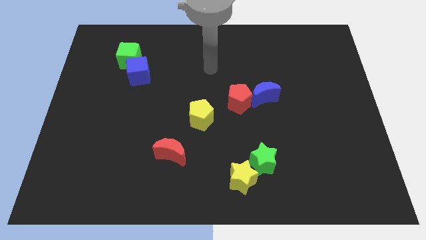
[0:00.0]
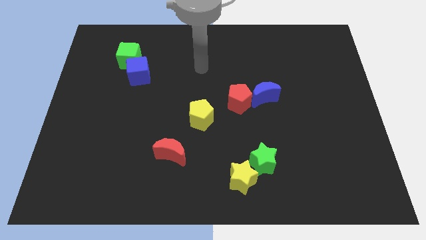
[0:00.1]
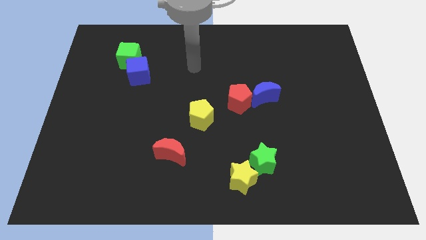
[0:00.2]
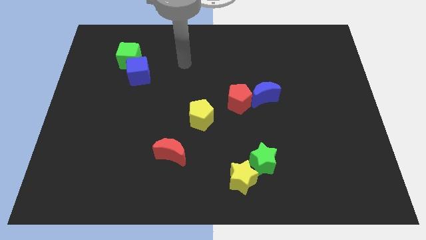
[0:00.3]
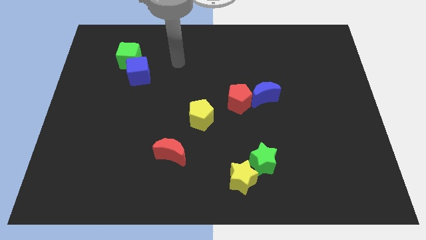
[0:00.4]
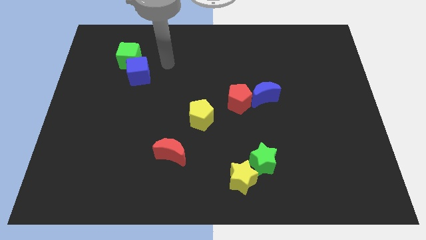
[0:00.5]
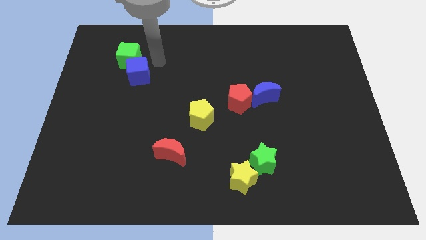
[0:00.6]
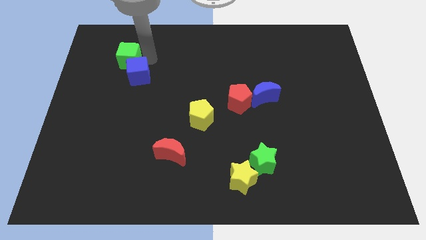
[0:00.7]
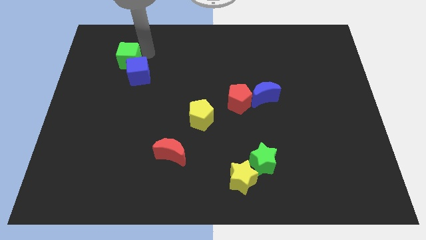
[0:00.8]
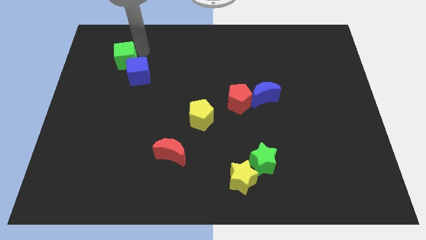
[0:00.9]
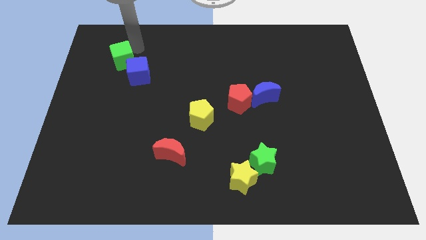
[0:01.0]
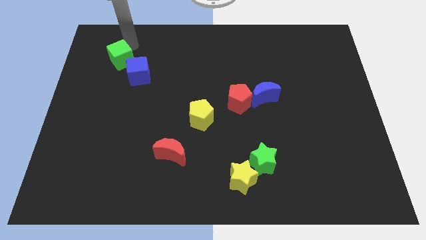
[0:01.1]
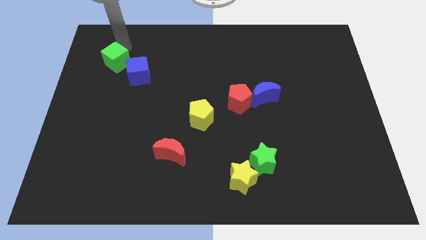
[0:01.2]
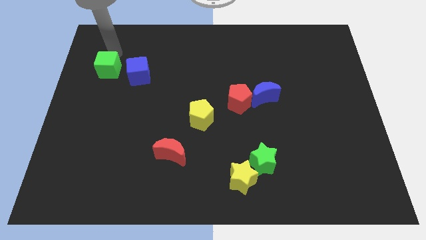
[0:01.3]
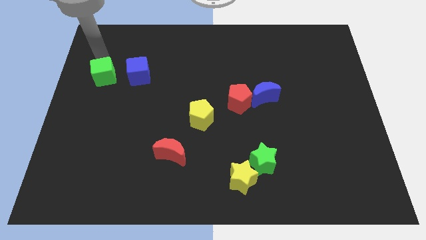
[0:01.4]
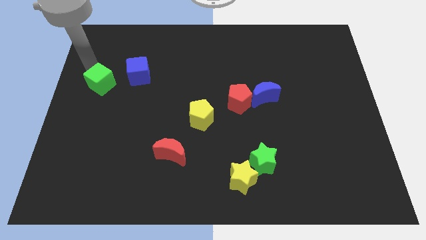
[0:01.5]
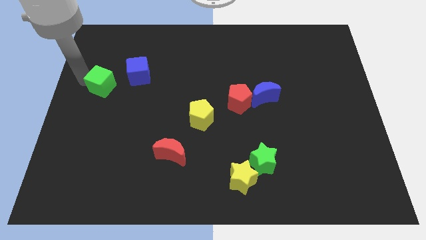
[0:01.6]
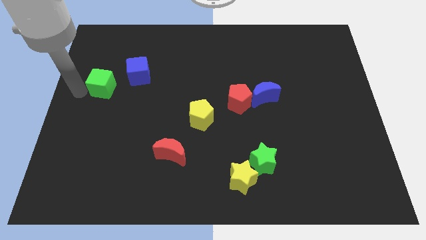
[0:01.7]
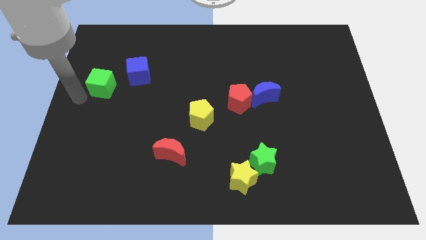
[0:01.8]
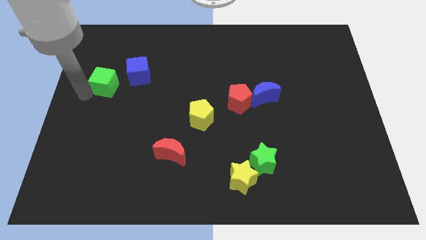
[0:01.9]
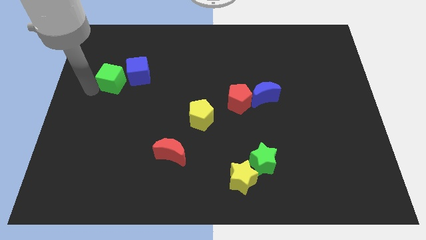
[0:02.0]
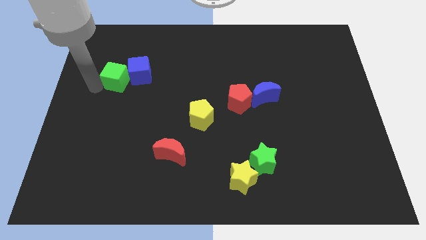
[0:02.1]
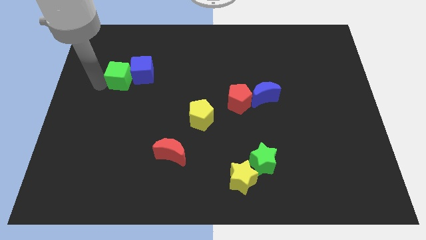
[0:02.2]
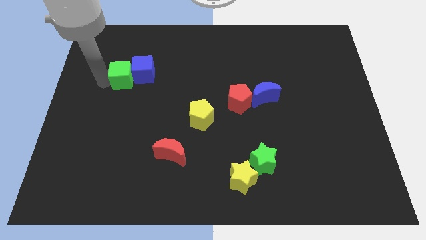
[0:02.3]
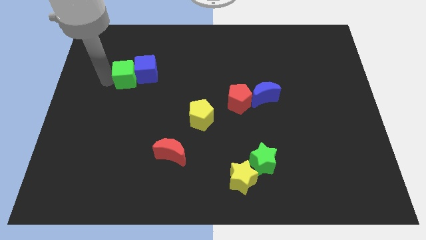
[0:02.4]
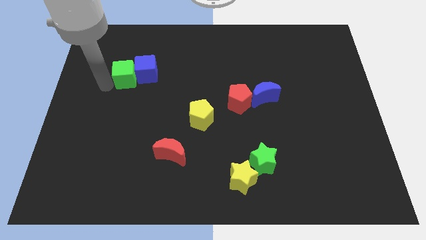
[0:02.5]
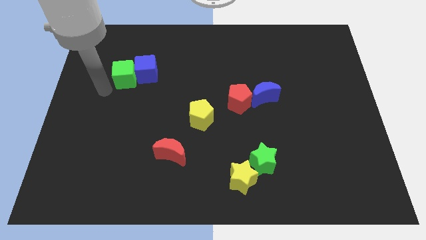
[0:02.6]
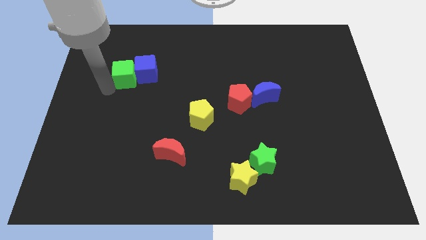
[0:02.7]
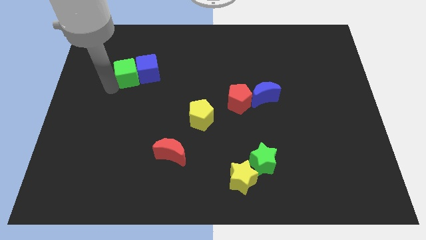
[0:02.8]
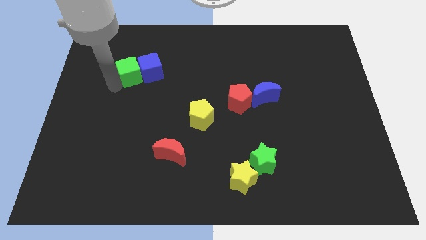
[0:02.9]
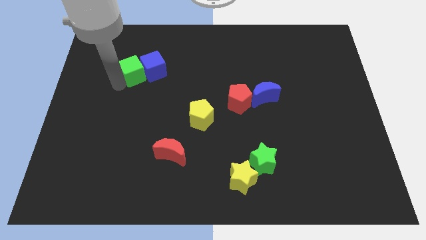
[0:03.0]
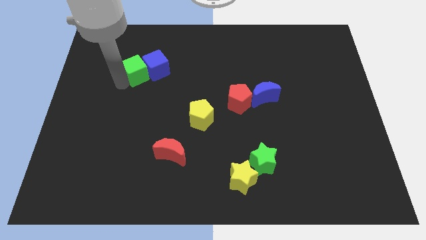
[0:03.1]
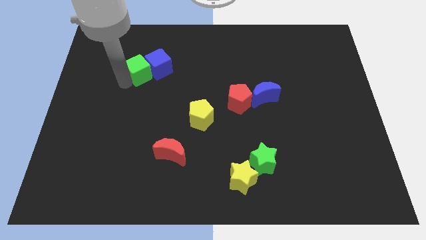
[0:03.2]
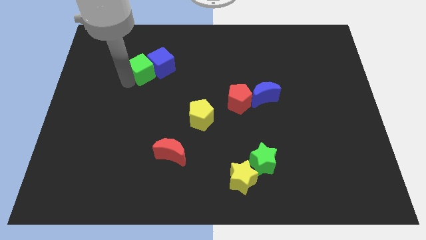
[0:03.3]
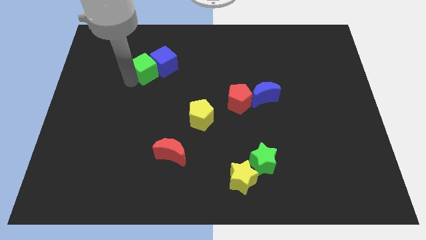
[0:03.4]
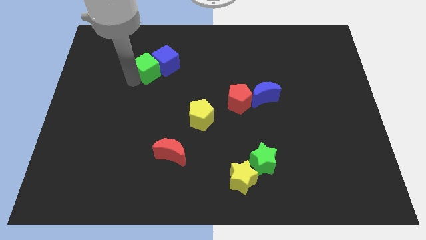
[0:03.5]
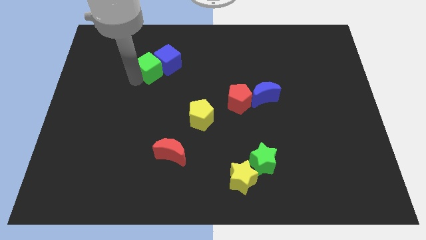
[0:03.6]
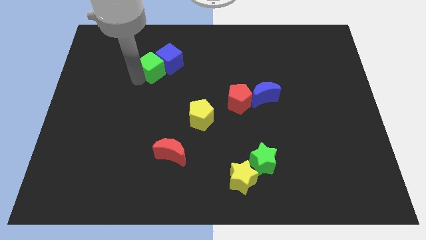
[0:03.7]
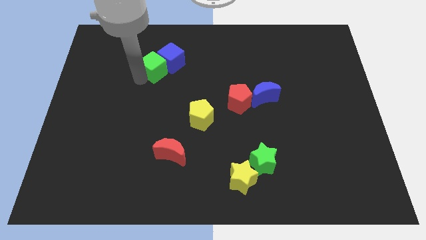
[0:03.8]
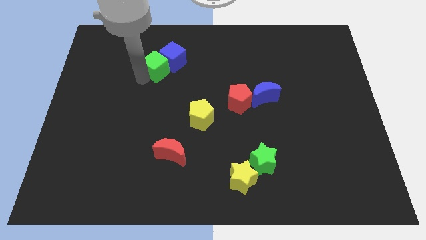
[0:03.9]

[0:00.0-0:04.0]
move the green cube right a bit

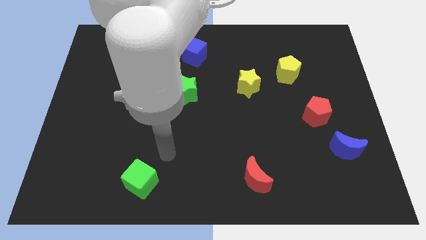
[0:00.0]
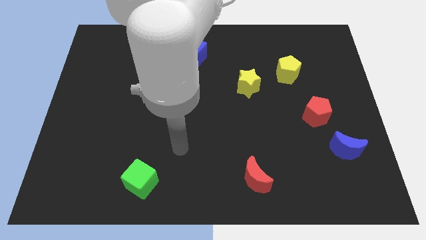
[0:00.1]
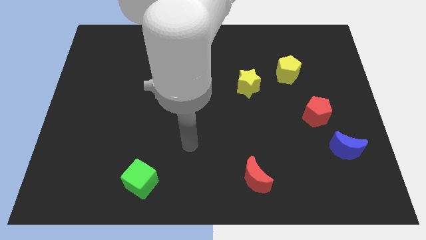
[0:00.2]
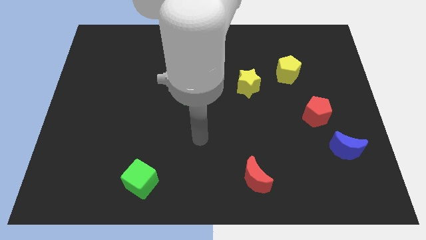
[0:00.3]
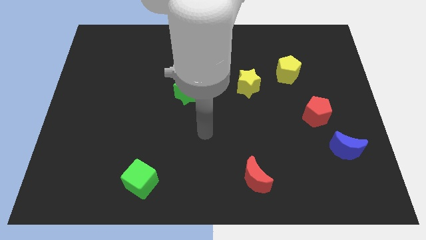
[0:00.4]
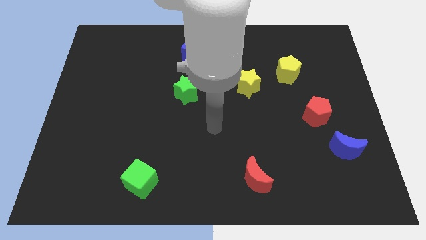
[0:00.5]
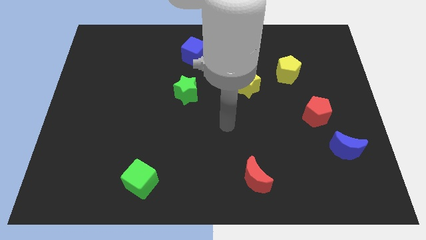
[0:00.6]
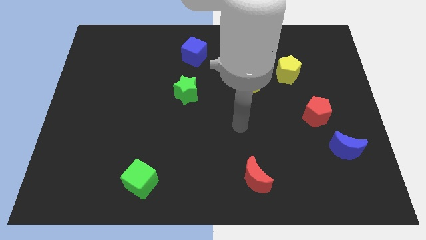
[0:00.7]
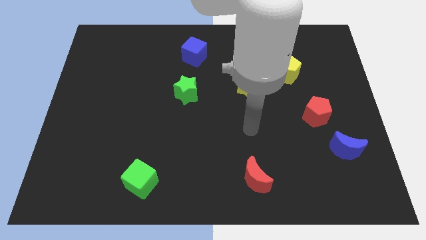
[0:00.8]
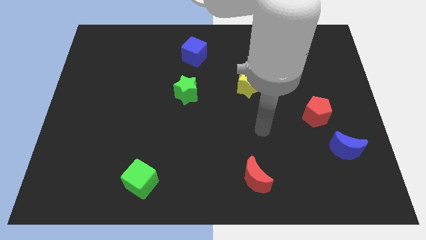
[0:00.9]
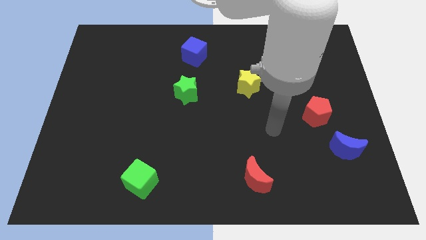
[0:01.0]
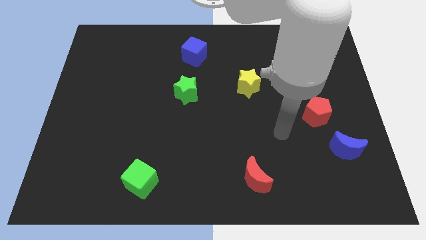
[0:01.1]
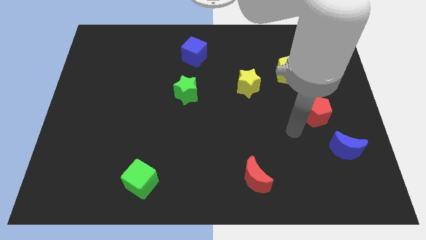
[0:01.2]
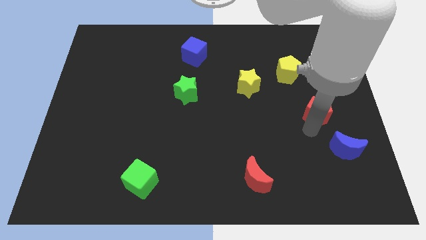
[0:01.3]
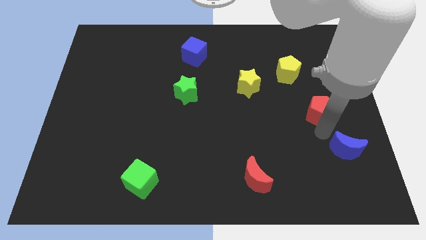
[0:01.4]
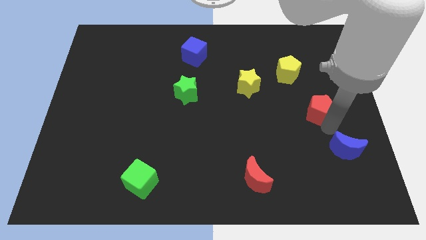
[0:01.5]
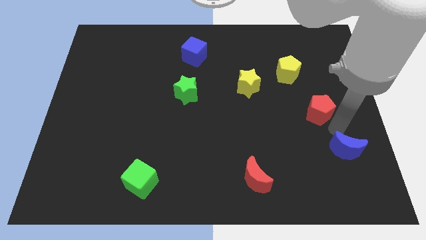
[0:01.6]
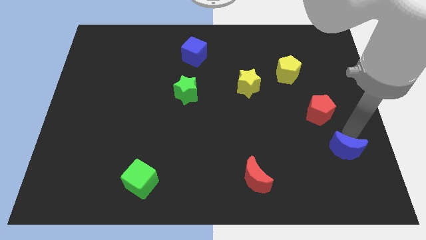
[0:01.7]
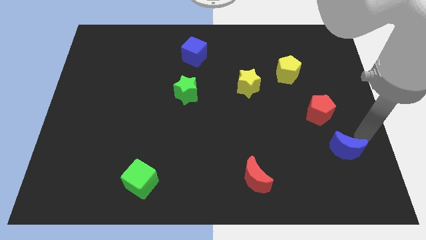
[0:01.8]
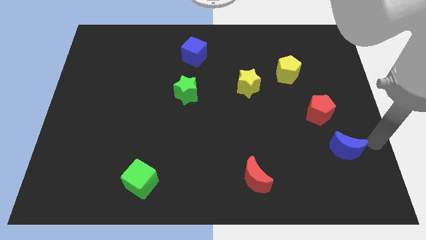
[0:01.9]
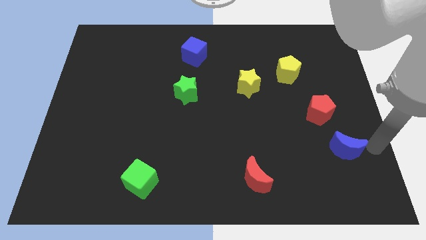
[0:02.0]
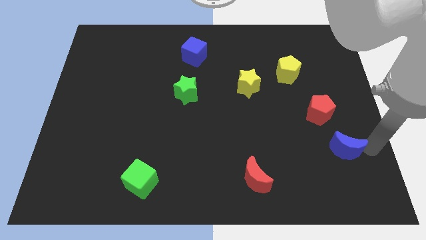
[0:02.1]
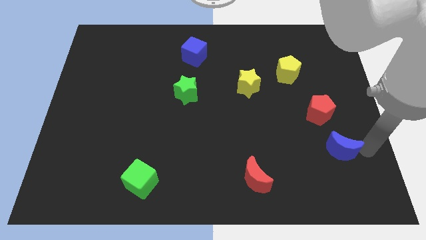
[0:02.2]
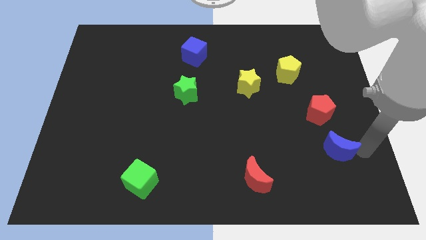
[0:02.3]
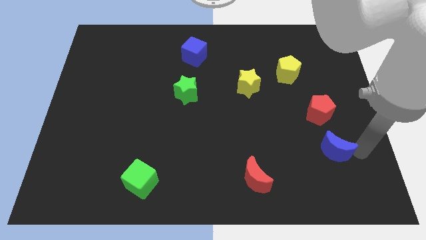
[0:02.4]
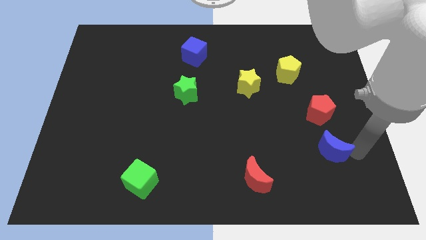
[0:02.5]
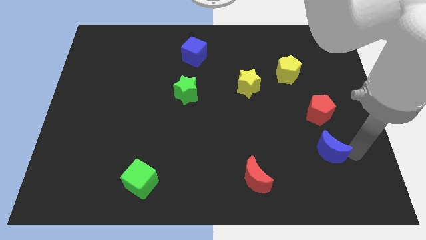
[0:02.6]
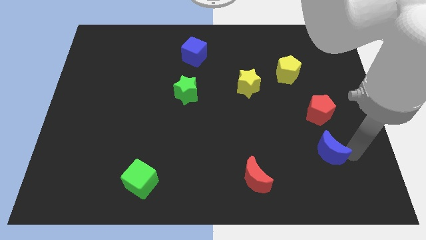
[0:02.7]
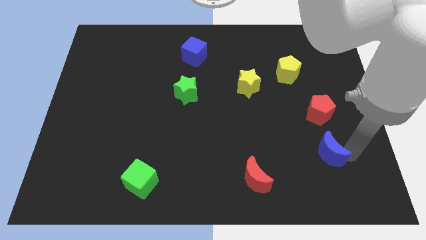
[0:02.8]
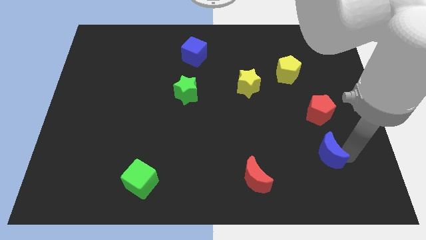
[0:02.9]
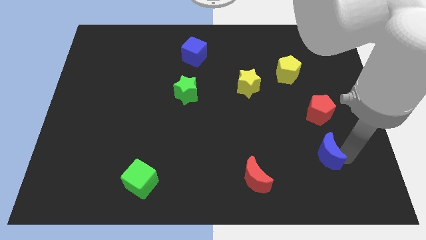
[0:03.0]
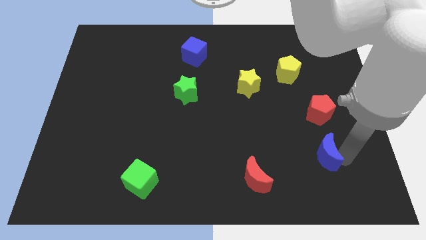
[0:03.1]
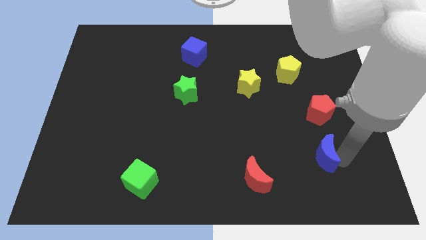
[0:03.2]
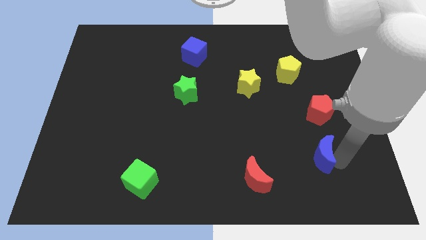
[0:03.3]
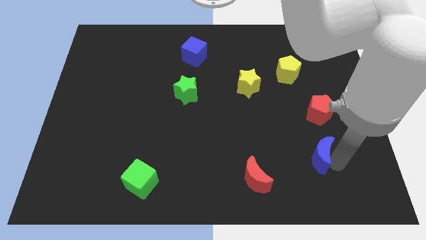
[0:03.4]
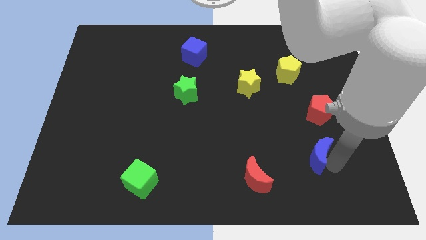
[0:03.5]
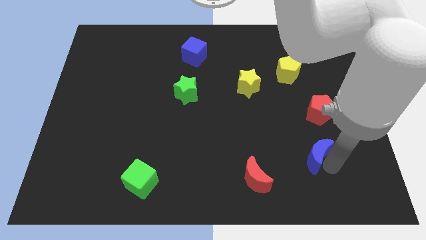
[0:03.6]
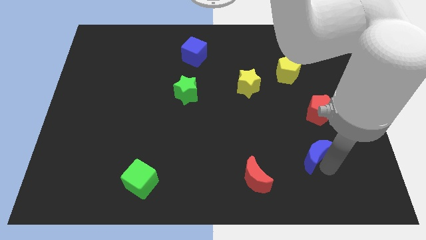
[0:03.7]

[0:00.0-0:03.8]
push the blue moon to the left slightly

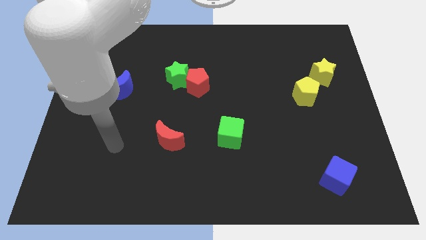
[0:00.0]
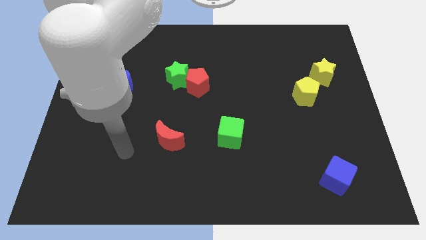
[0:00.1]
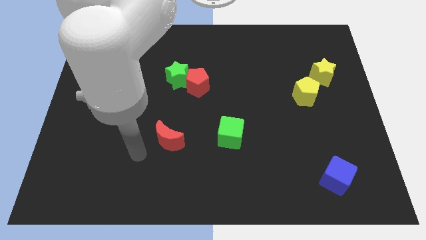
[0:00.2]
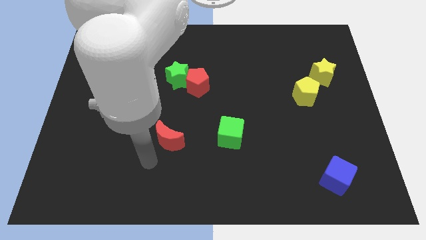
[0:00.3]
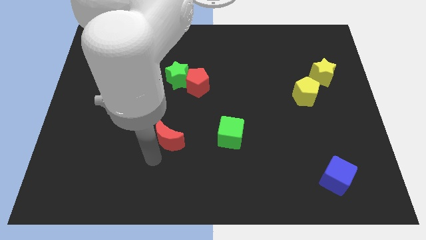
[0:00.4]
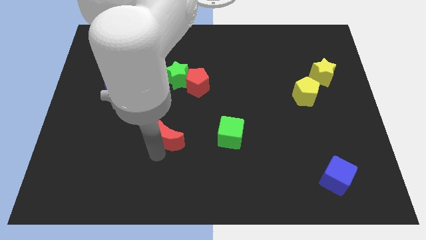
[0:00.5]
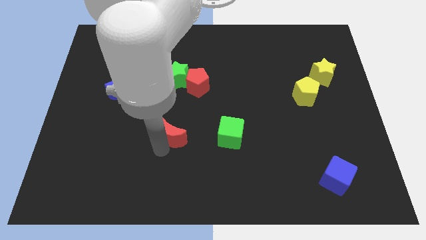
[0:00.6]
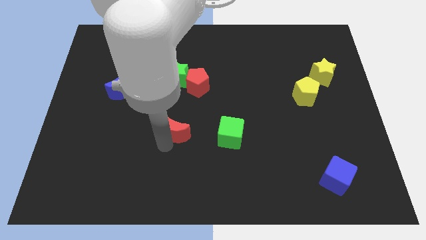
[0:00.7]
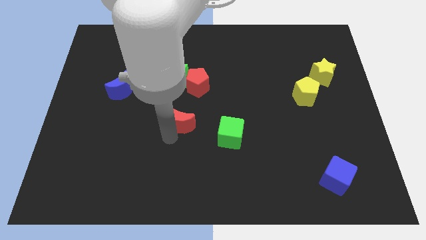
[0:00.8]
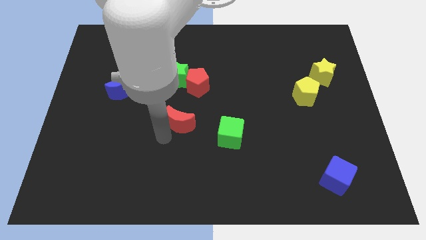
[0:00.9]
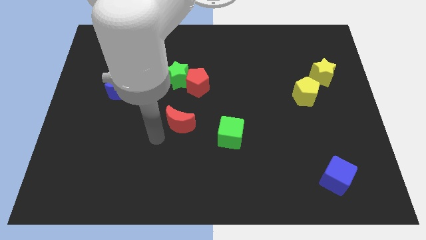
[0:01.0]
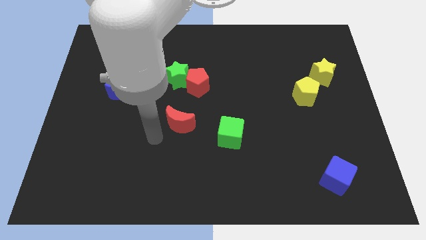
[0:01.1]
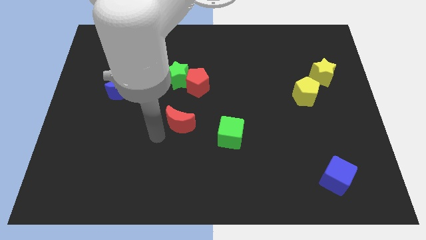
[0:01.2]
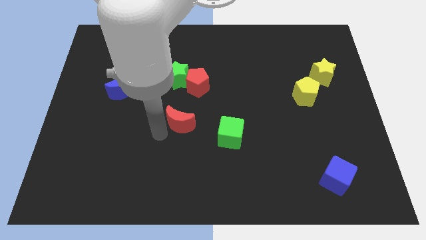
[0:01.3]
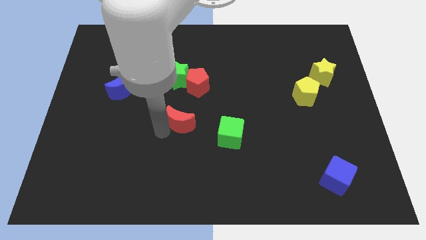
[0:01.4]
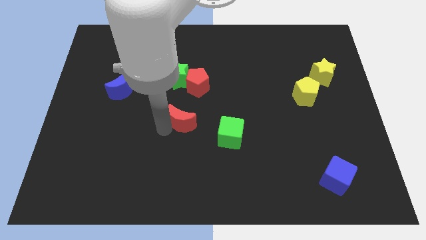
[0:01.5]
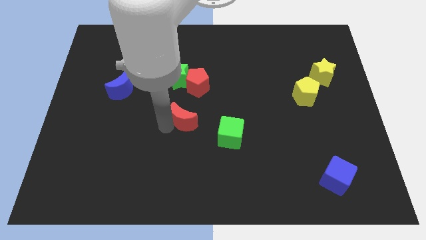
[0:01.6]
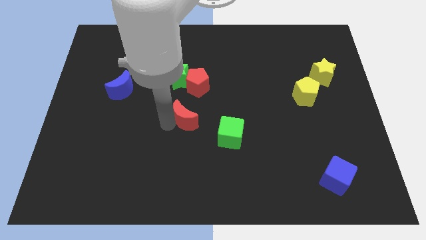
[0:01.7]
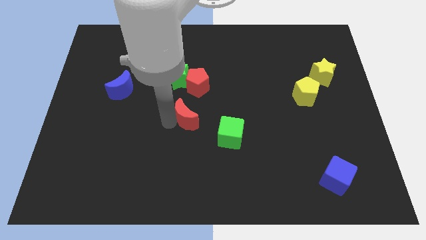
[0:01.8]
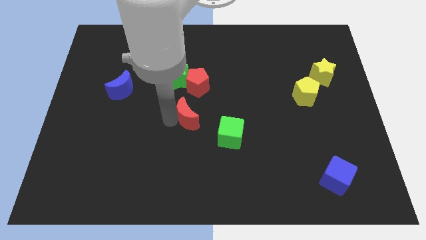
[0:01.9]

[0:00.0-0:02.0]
slightly move the red moon diagonally upwards and to the right
